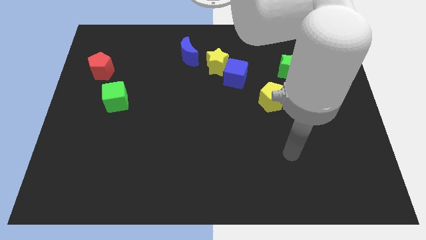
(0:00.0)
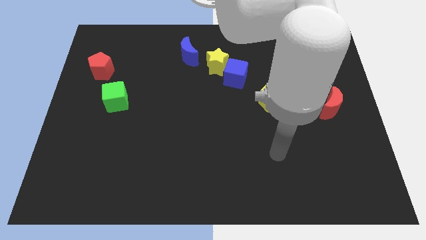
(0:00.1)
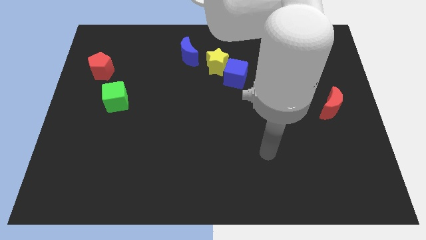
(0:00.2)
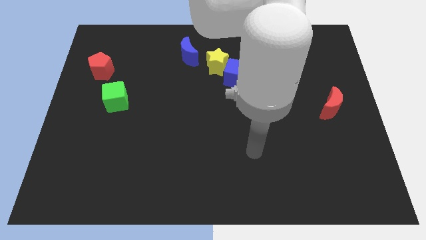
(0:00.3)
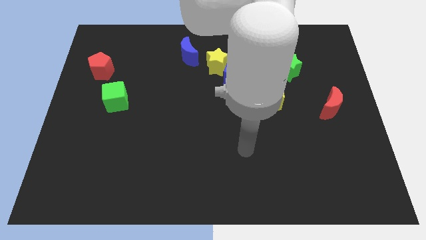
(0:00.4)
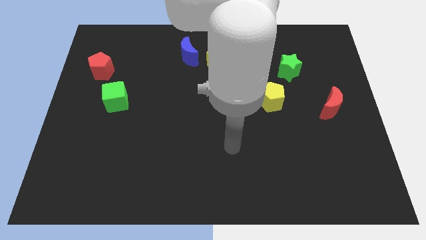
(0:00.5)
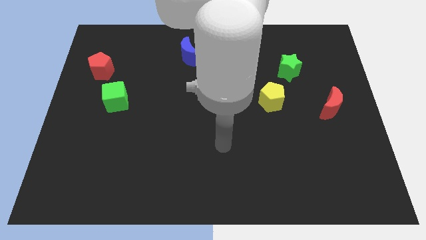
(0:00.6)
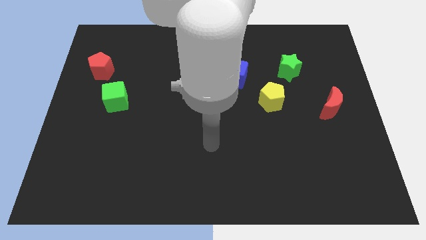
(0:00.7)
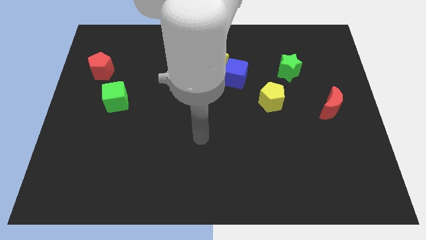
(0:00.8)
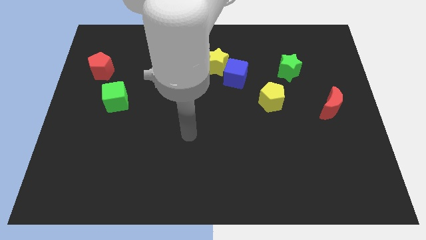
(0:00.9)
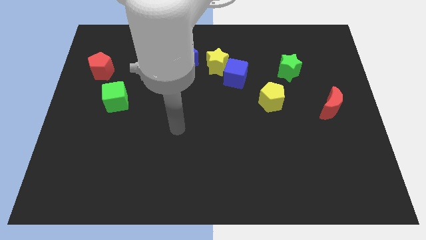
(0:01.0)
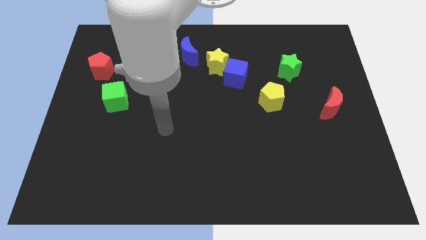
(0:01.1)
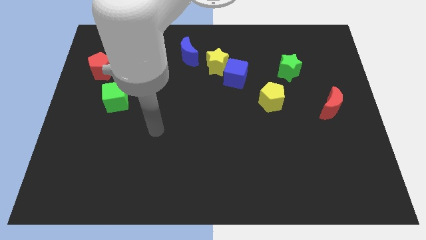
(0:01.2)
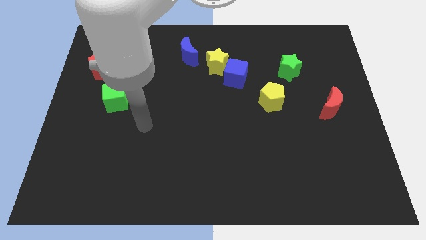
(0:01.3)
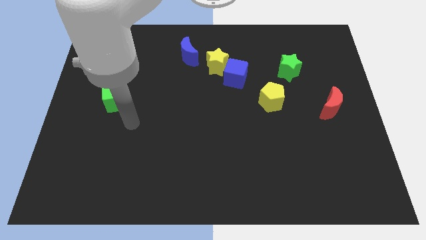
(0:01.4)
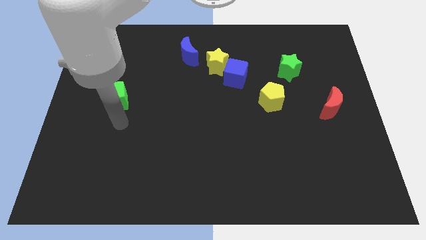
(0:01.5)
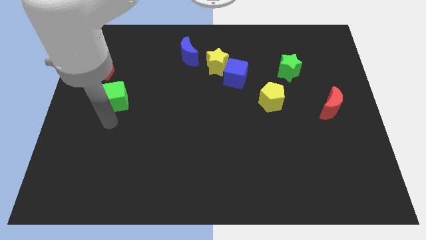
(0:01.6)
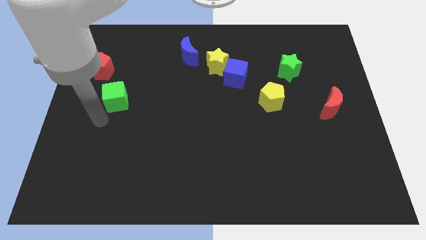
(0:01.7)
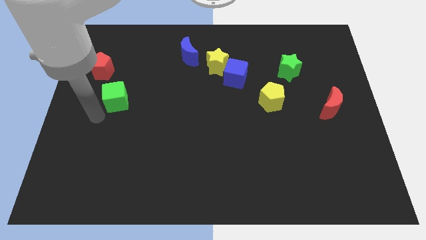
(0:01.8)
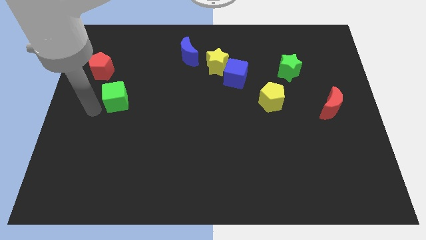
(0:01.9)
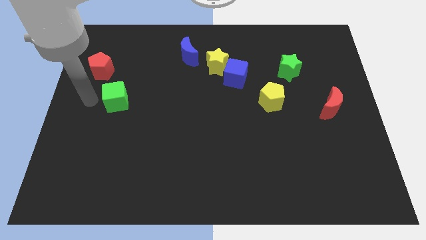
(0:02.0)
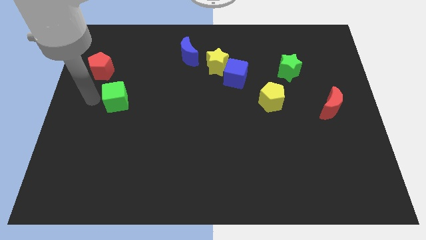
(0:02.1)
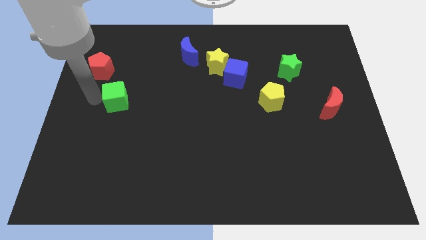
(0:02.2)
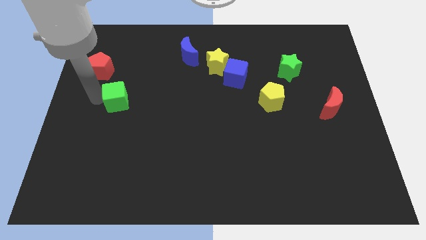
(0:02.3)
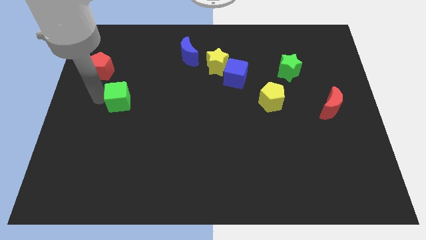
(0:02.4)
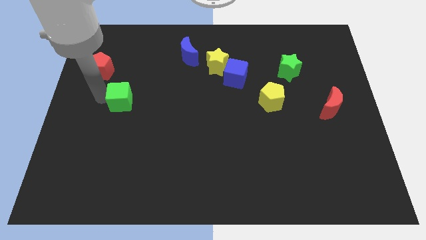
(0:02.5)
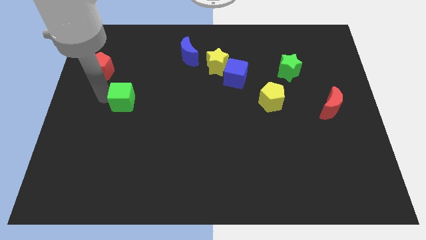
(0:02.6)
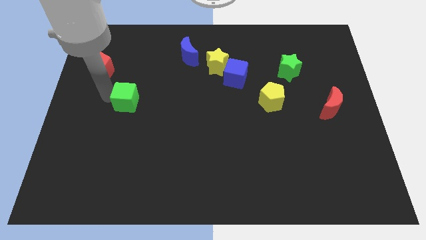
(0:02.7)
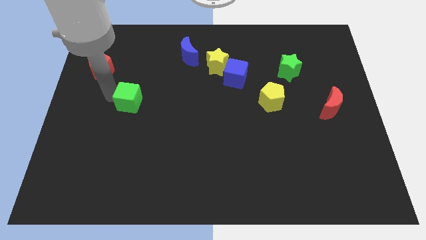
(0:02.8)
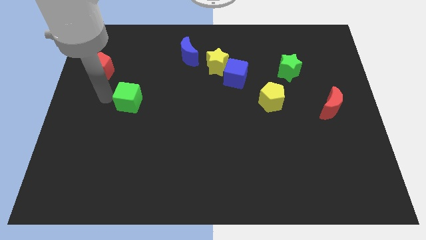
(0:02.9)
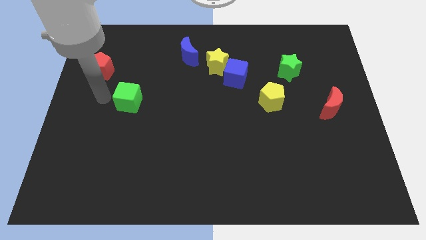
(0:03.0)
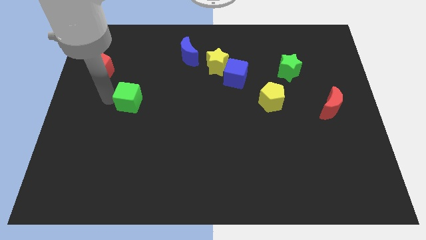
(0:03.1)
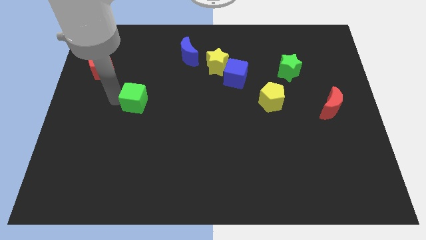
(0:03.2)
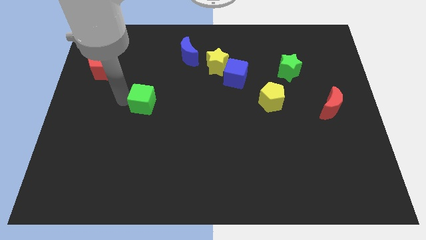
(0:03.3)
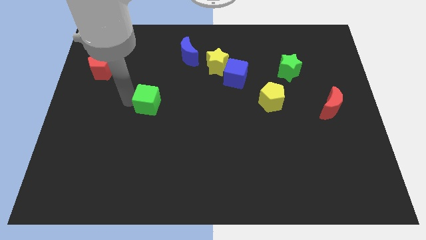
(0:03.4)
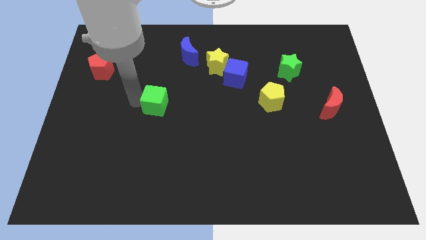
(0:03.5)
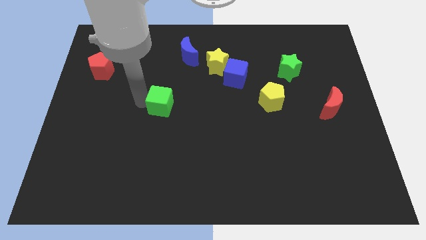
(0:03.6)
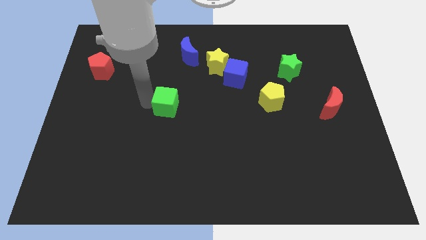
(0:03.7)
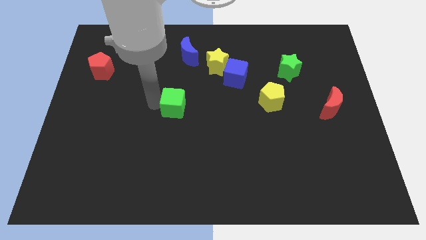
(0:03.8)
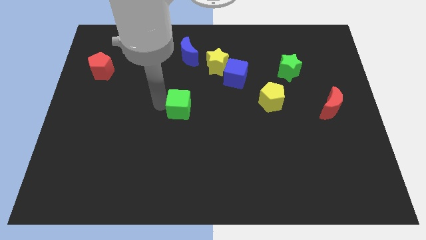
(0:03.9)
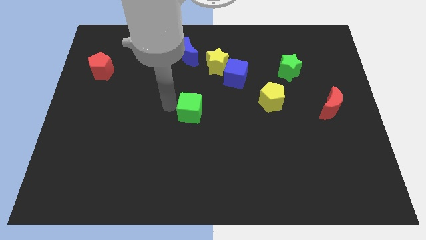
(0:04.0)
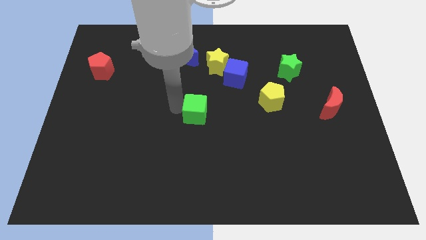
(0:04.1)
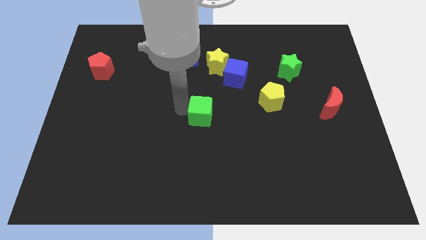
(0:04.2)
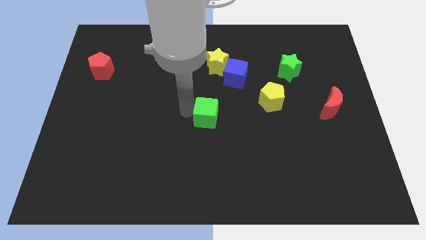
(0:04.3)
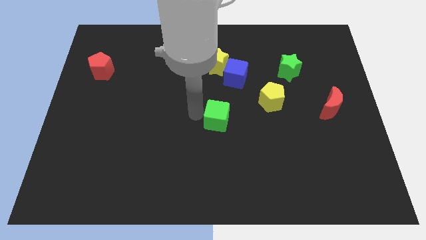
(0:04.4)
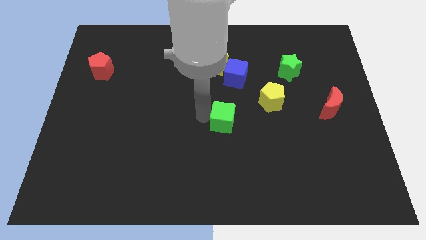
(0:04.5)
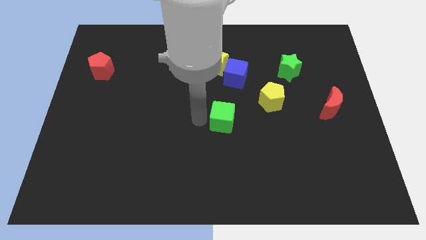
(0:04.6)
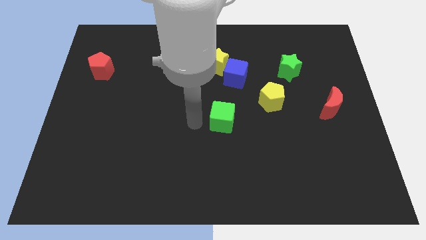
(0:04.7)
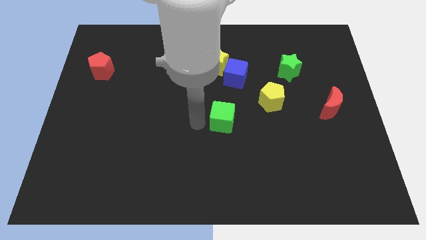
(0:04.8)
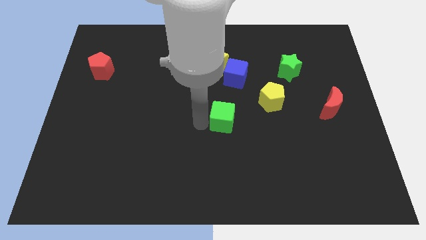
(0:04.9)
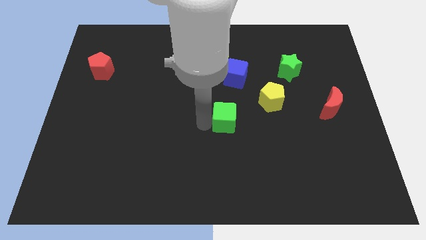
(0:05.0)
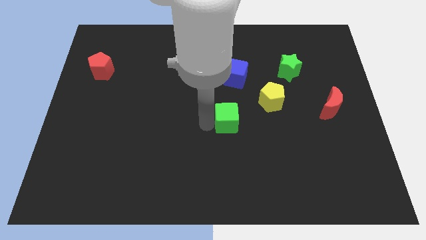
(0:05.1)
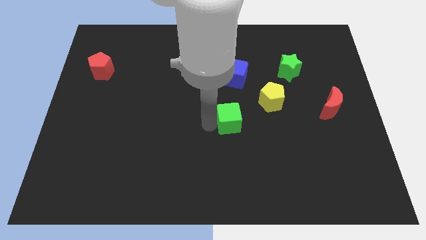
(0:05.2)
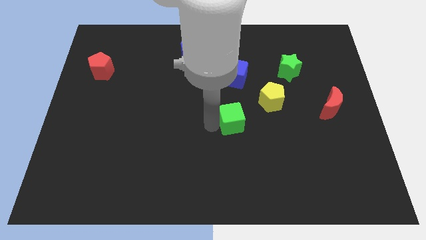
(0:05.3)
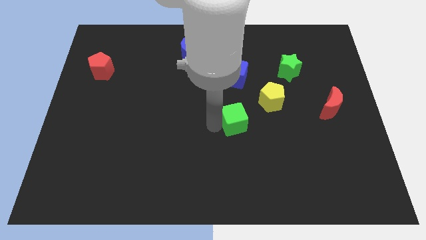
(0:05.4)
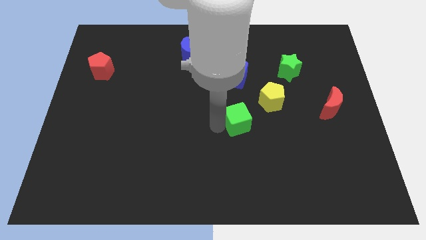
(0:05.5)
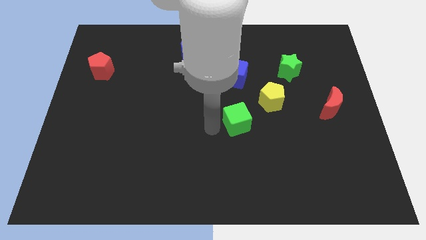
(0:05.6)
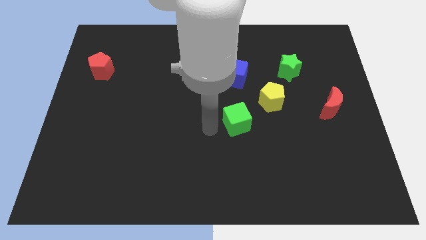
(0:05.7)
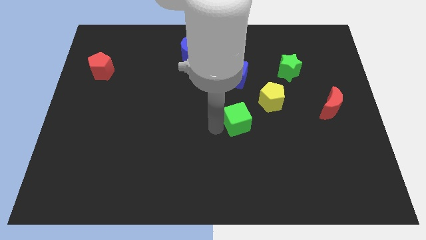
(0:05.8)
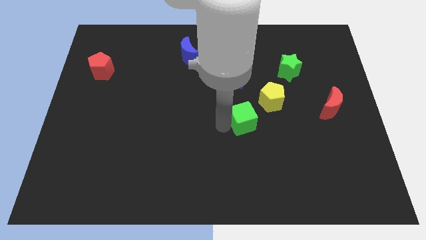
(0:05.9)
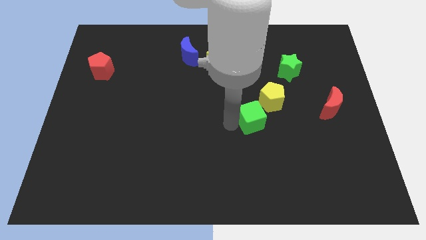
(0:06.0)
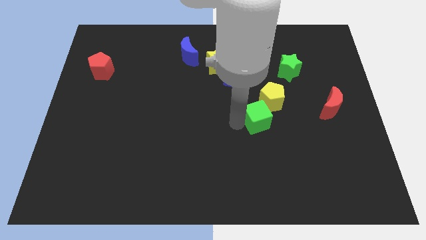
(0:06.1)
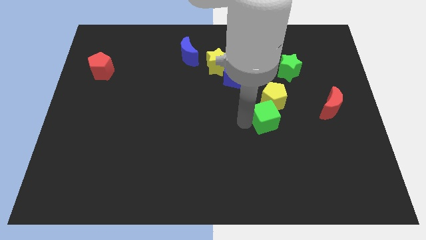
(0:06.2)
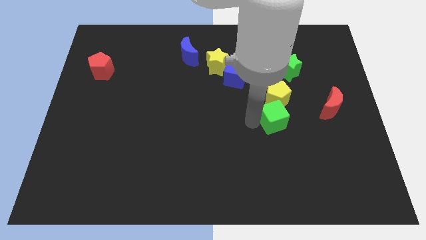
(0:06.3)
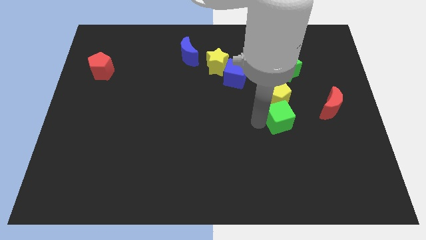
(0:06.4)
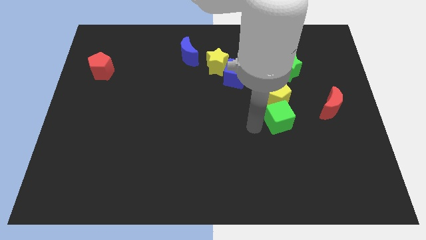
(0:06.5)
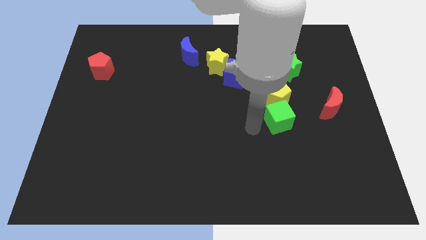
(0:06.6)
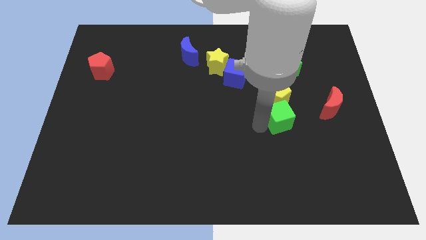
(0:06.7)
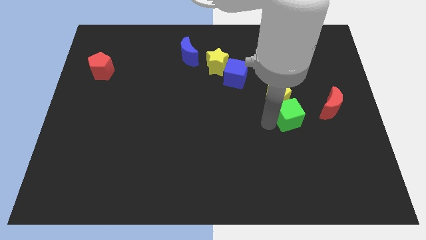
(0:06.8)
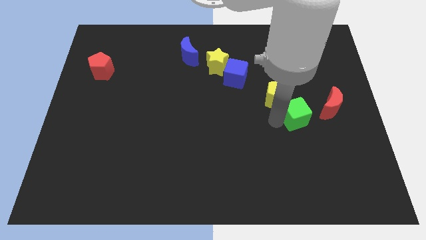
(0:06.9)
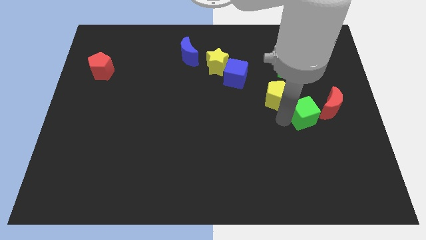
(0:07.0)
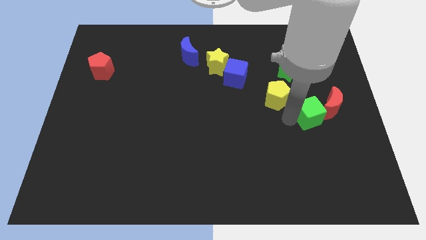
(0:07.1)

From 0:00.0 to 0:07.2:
move the green cube close to the red moon
